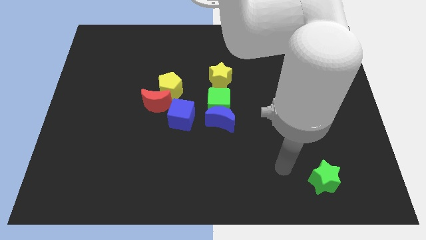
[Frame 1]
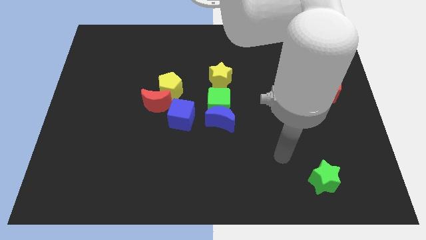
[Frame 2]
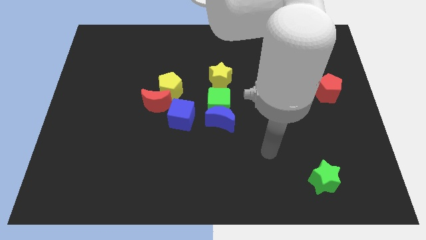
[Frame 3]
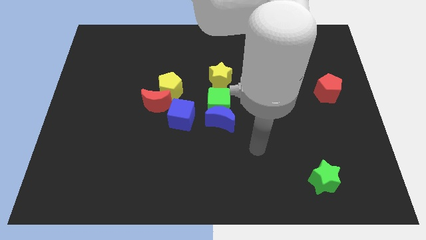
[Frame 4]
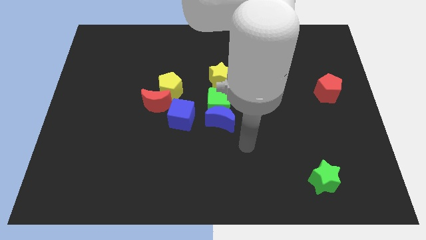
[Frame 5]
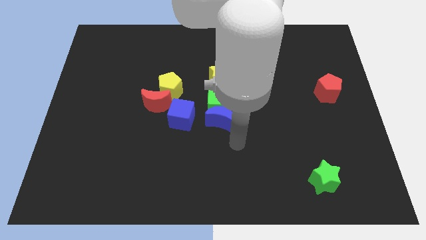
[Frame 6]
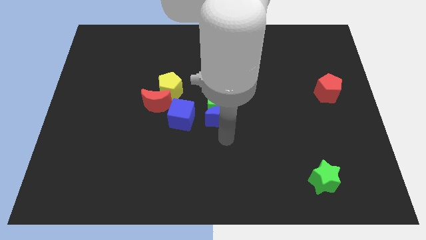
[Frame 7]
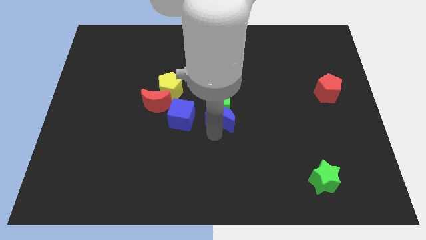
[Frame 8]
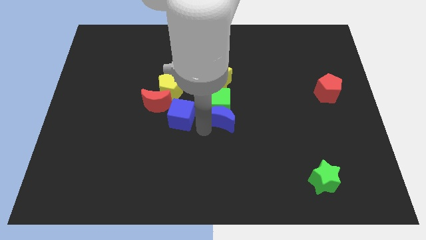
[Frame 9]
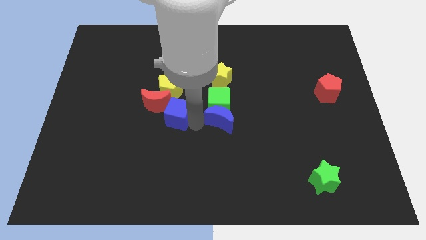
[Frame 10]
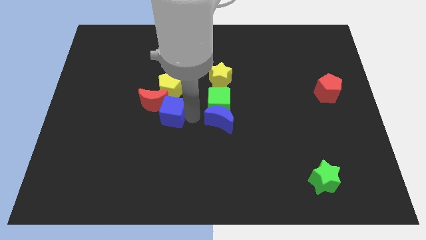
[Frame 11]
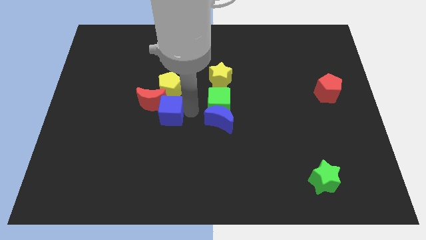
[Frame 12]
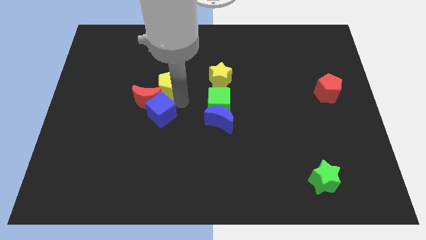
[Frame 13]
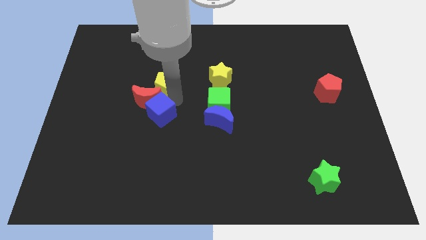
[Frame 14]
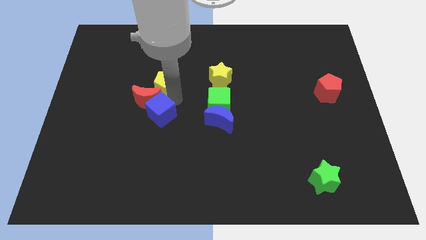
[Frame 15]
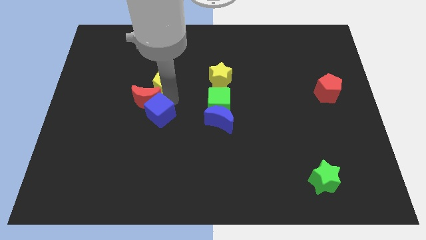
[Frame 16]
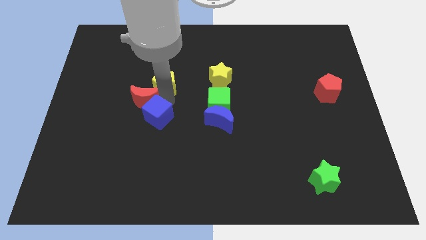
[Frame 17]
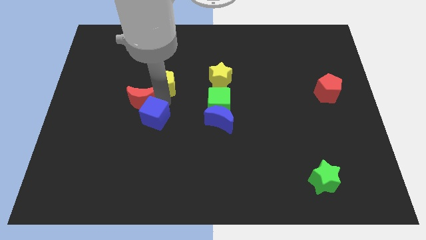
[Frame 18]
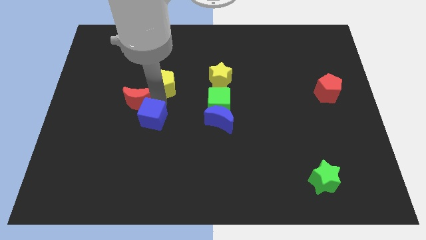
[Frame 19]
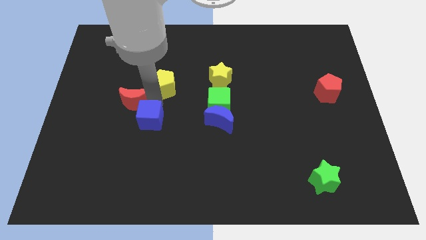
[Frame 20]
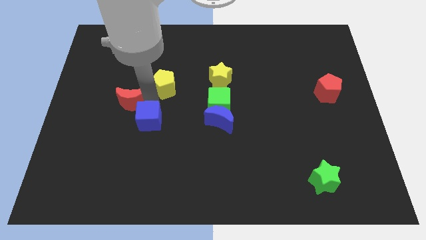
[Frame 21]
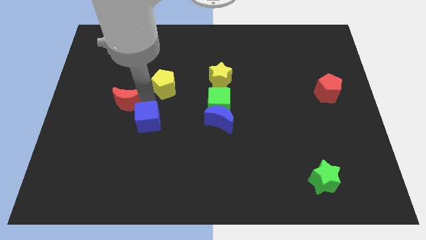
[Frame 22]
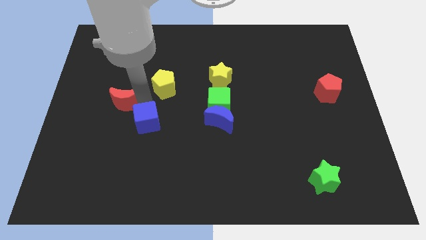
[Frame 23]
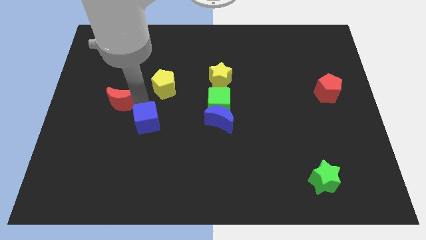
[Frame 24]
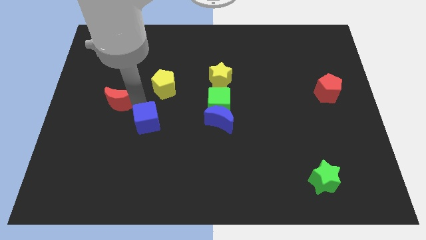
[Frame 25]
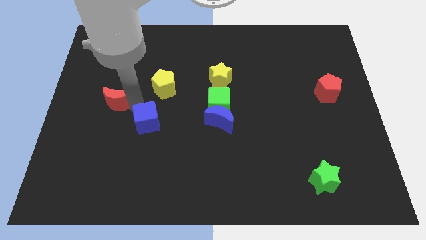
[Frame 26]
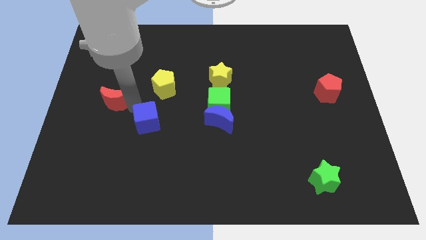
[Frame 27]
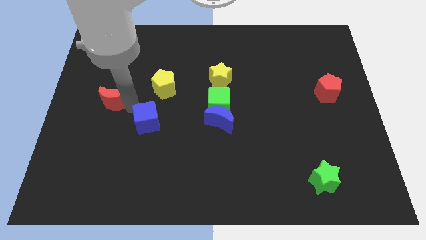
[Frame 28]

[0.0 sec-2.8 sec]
separate the red moon from the yellow pentagon and blue cube

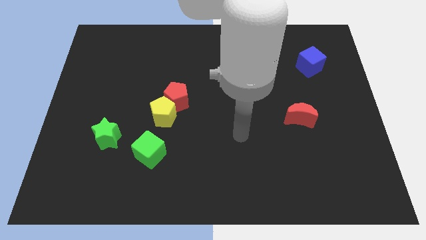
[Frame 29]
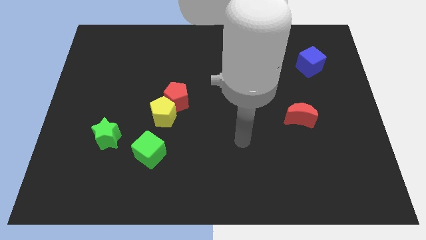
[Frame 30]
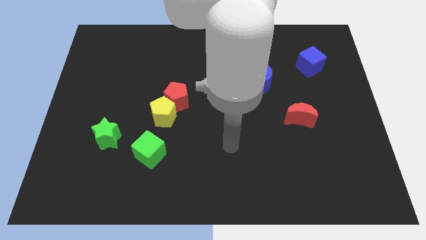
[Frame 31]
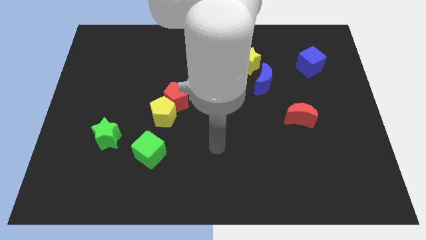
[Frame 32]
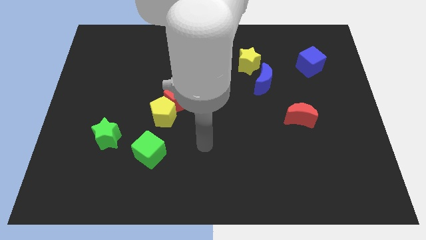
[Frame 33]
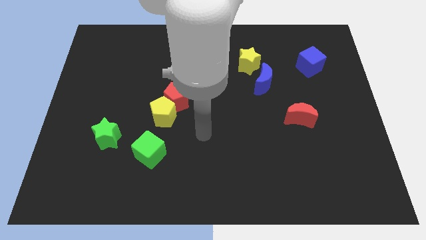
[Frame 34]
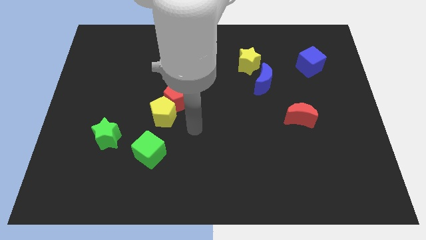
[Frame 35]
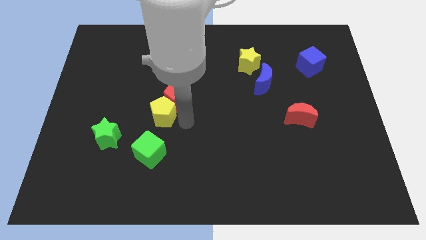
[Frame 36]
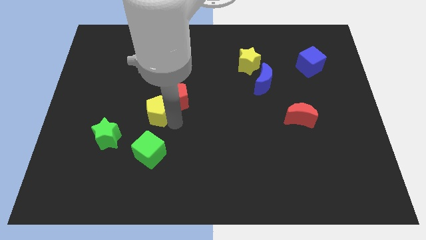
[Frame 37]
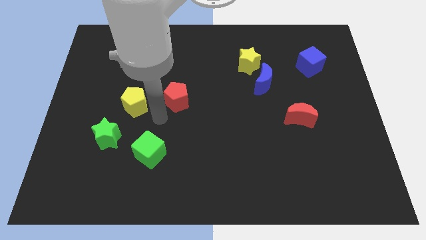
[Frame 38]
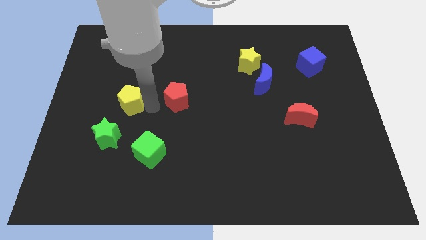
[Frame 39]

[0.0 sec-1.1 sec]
pull the red pentagon apart from the yellow pentagon

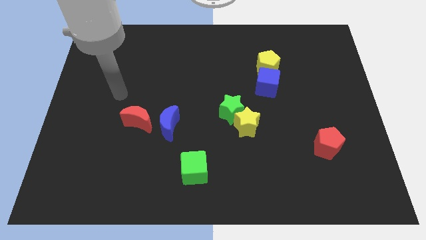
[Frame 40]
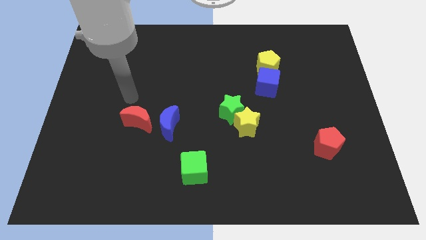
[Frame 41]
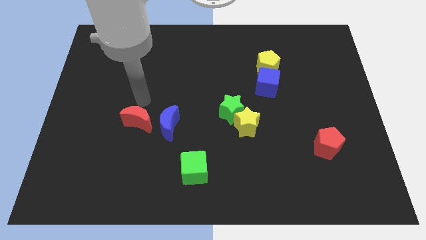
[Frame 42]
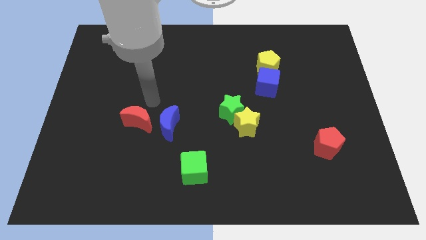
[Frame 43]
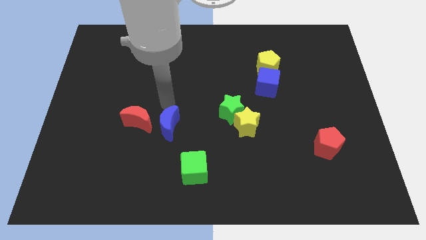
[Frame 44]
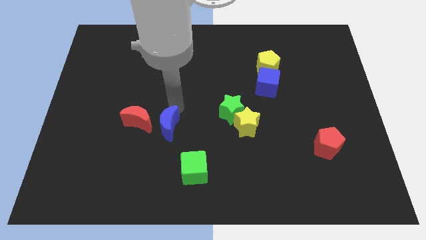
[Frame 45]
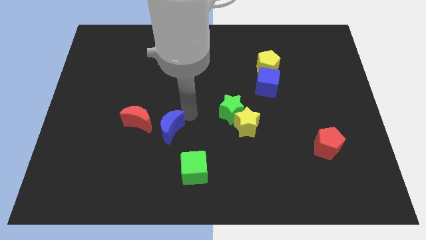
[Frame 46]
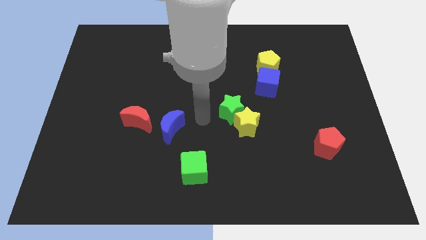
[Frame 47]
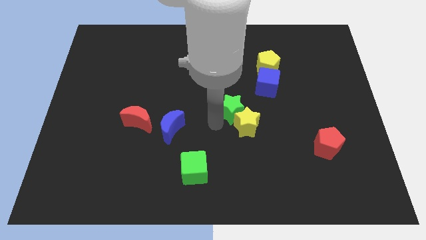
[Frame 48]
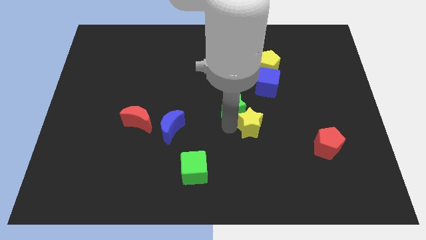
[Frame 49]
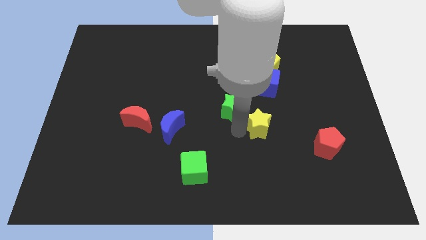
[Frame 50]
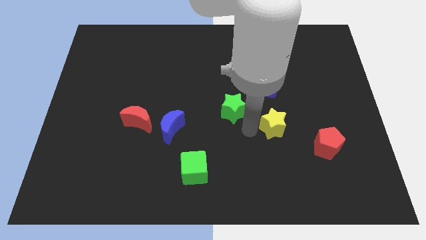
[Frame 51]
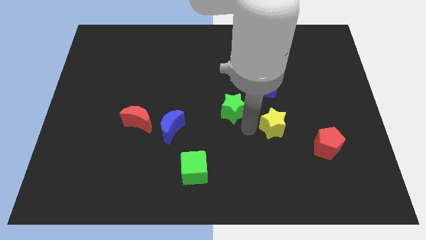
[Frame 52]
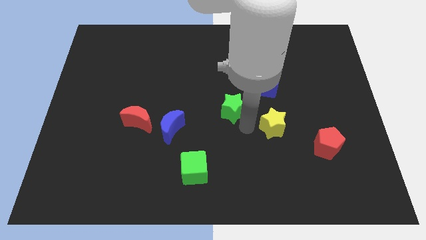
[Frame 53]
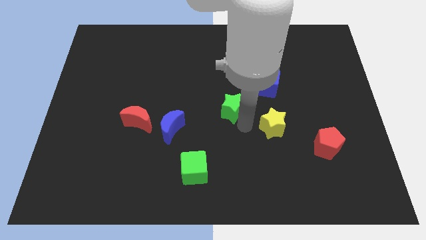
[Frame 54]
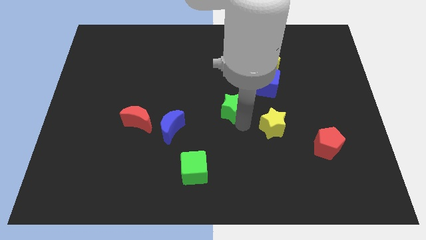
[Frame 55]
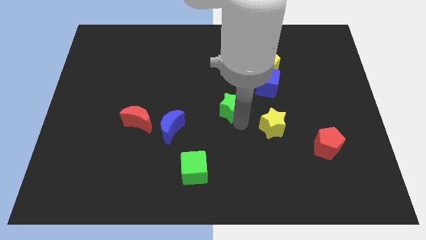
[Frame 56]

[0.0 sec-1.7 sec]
move the green star away from the yellow star

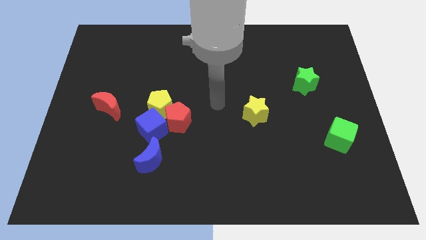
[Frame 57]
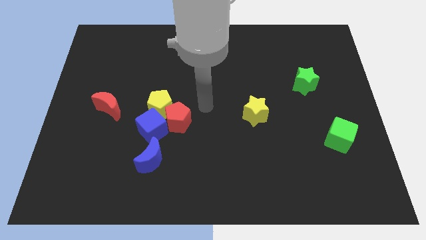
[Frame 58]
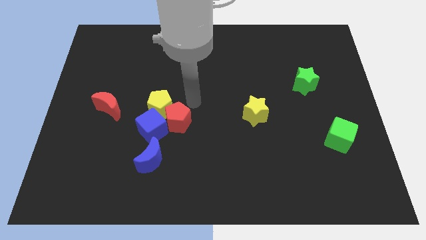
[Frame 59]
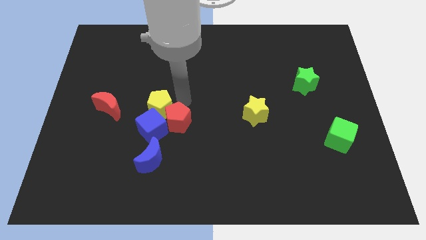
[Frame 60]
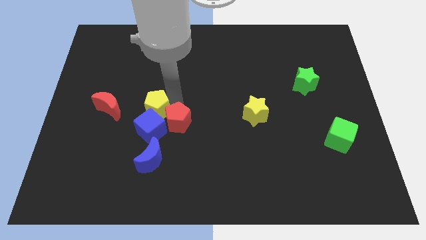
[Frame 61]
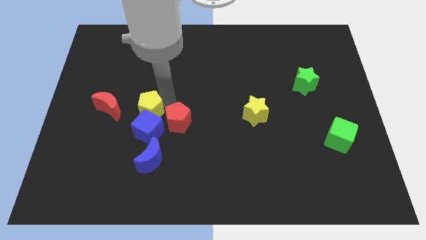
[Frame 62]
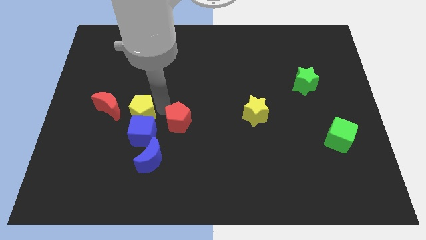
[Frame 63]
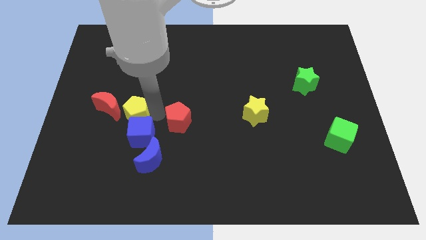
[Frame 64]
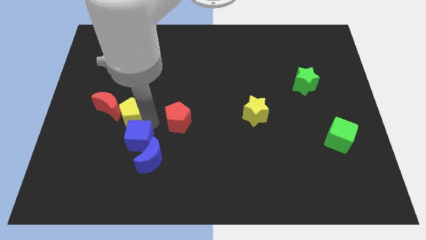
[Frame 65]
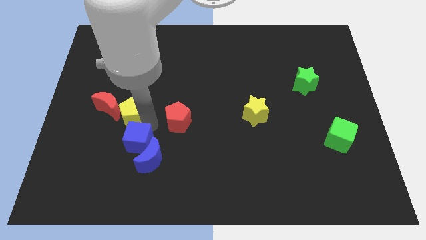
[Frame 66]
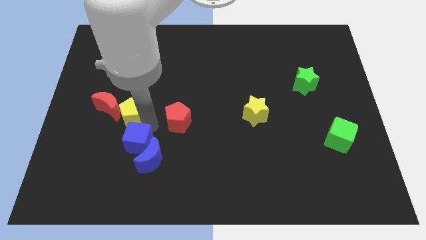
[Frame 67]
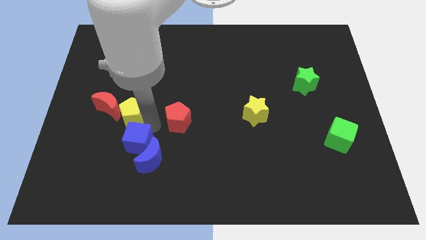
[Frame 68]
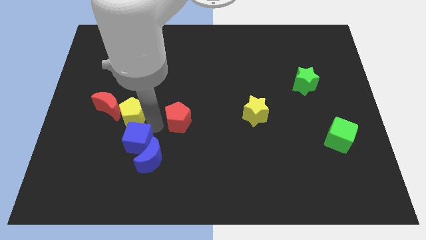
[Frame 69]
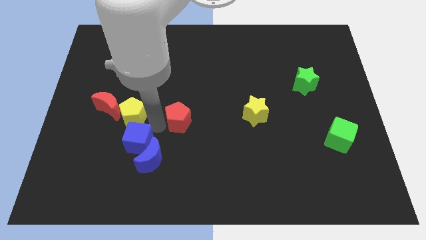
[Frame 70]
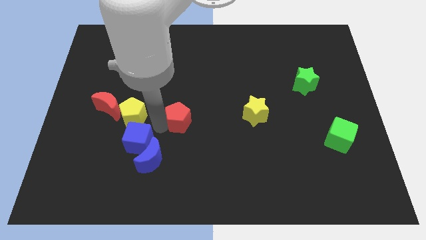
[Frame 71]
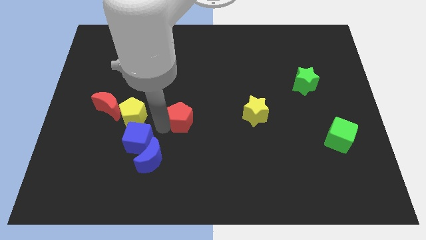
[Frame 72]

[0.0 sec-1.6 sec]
move the red pentagon away from the yellow pentagon and blue cube

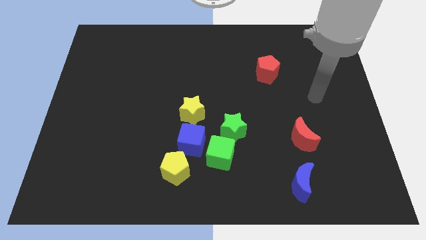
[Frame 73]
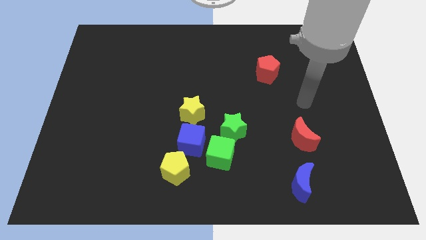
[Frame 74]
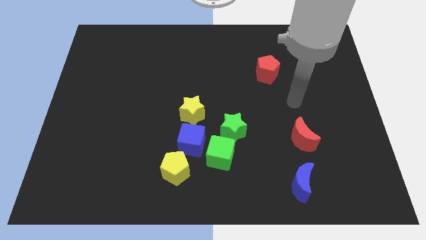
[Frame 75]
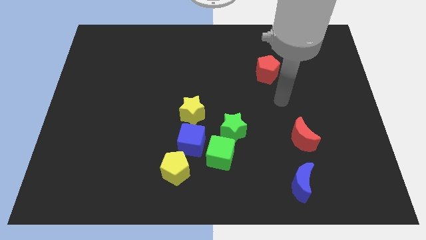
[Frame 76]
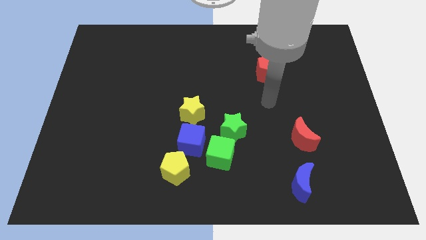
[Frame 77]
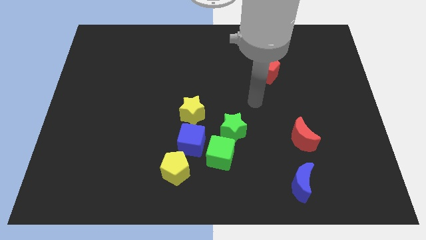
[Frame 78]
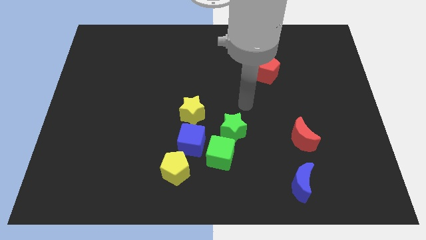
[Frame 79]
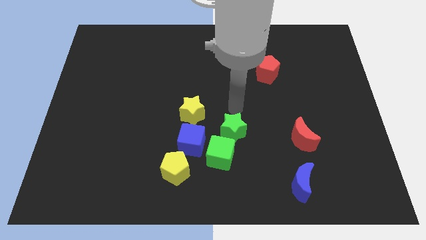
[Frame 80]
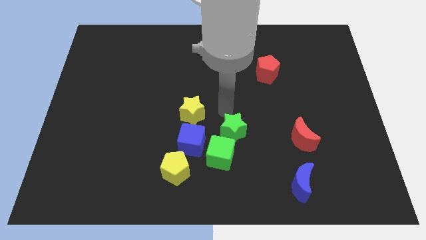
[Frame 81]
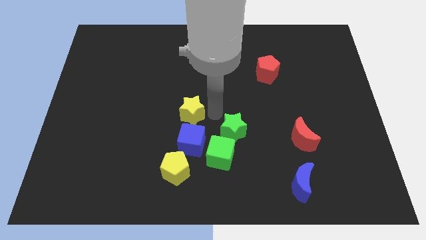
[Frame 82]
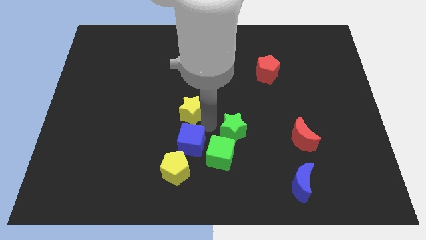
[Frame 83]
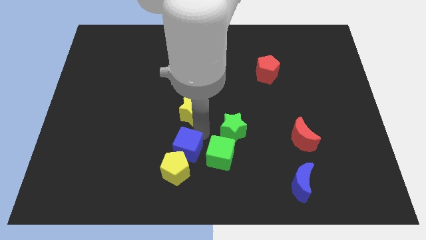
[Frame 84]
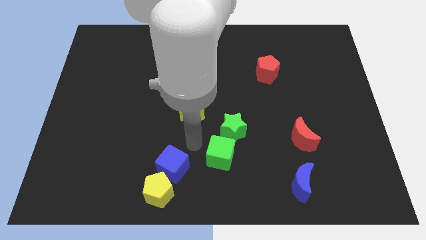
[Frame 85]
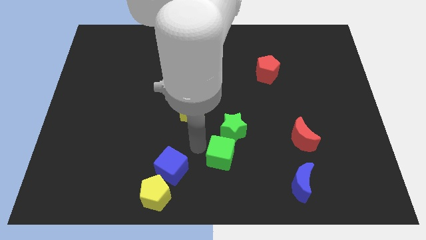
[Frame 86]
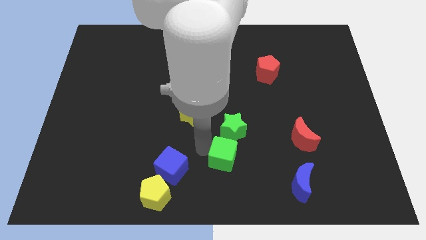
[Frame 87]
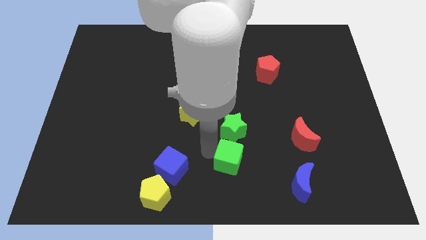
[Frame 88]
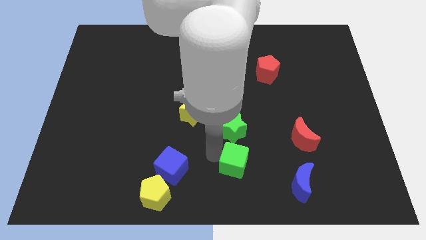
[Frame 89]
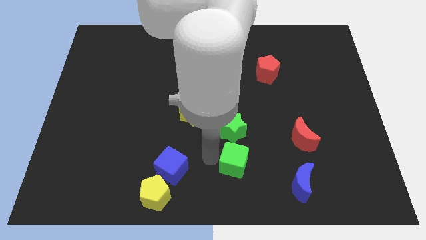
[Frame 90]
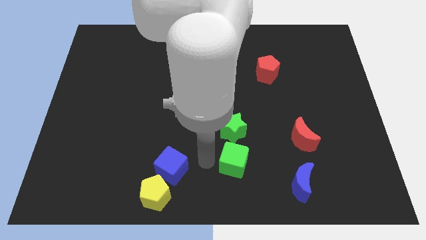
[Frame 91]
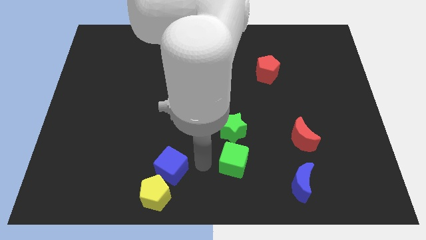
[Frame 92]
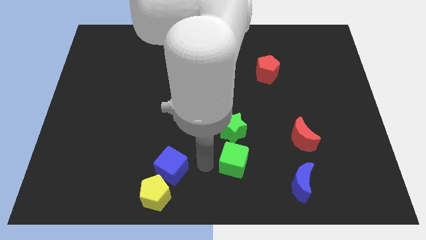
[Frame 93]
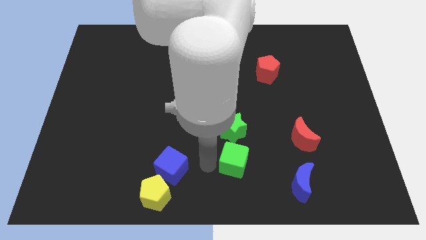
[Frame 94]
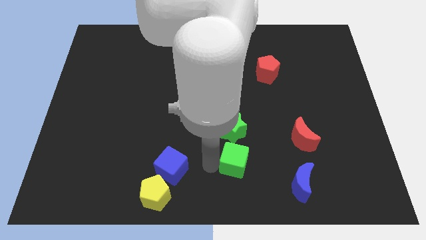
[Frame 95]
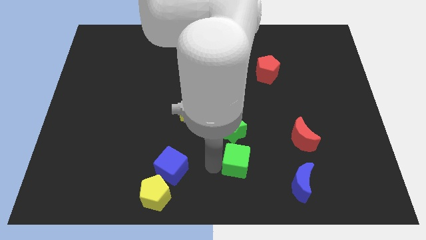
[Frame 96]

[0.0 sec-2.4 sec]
move the green cube away from the group
